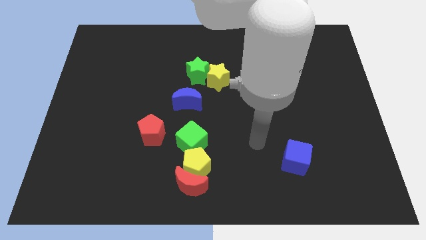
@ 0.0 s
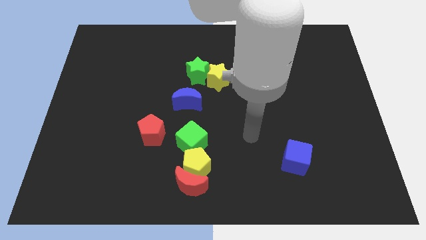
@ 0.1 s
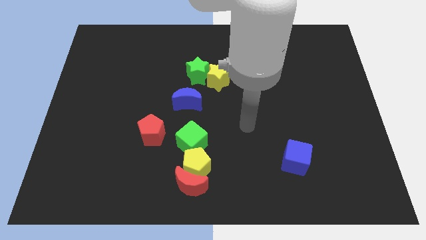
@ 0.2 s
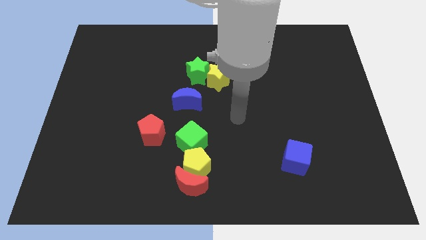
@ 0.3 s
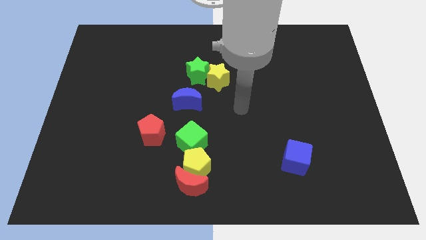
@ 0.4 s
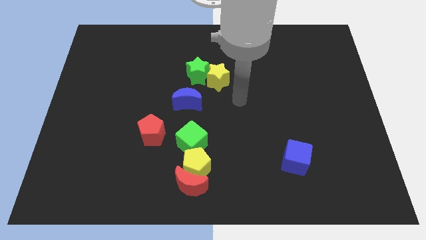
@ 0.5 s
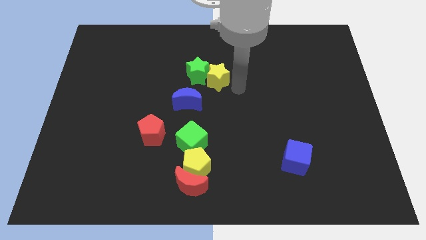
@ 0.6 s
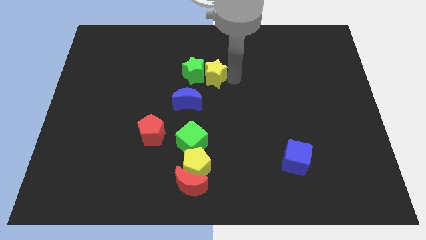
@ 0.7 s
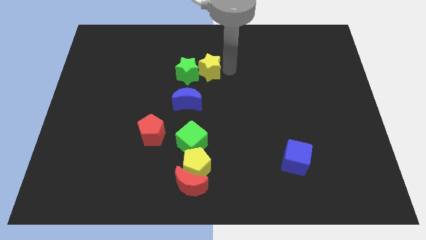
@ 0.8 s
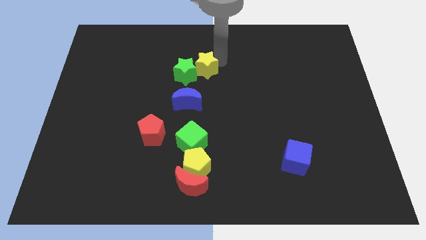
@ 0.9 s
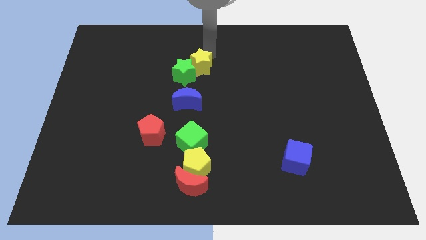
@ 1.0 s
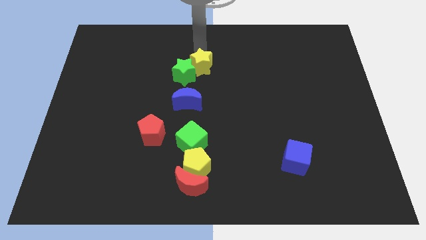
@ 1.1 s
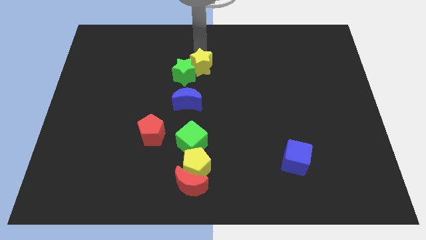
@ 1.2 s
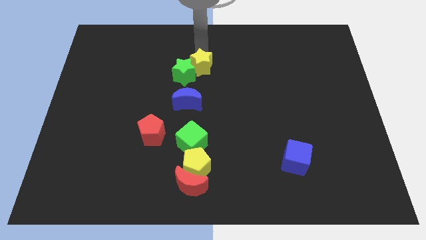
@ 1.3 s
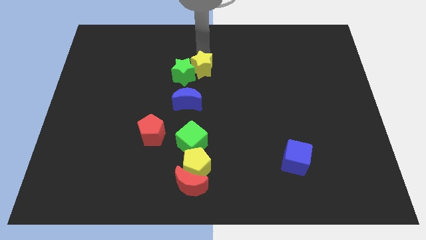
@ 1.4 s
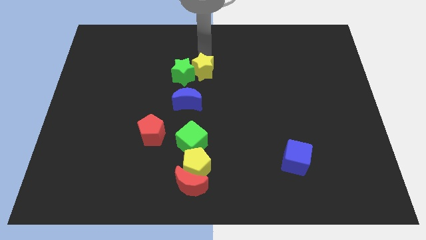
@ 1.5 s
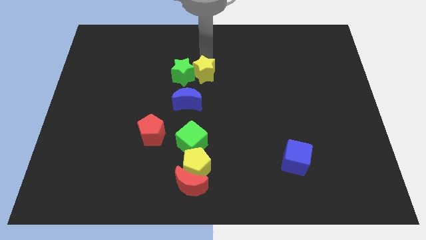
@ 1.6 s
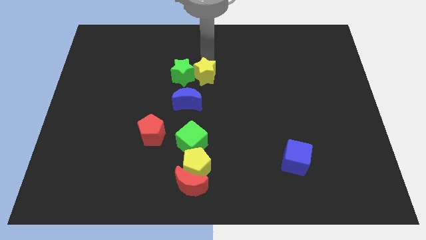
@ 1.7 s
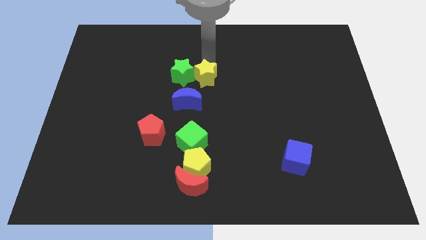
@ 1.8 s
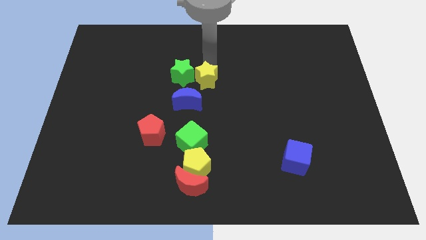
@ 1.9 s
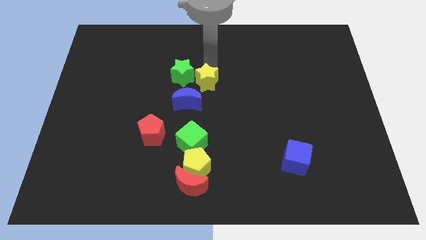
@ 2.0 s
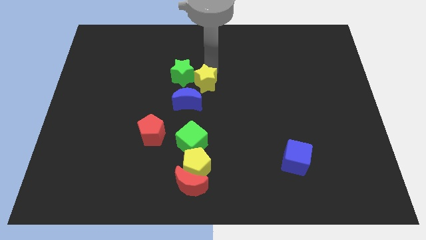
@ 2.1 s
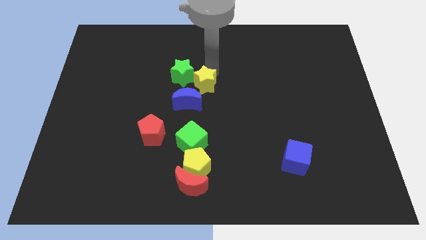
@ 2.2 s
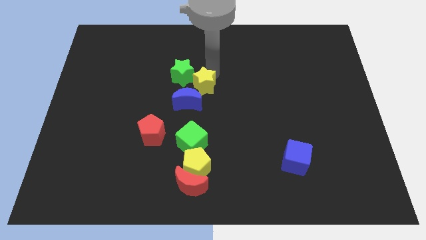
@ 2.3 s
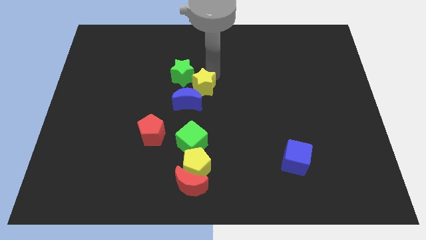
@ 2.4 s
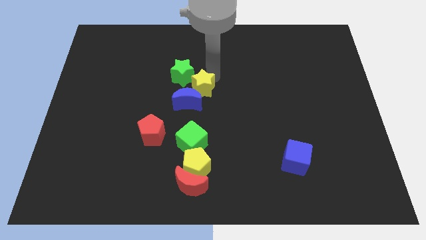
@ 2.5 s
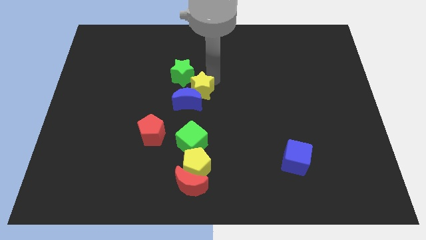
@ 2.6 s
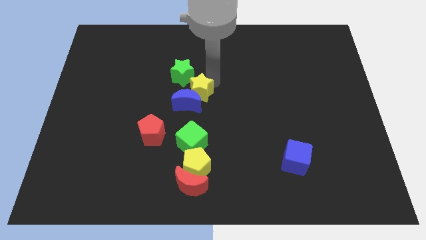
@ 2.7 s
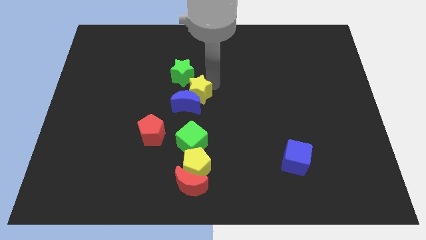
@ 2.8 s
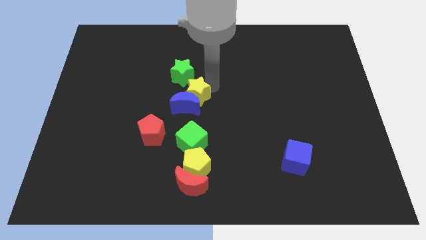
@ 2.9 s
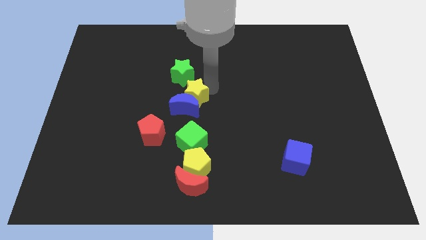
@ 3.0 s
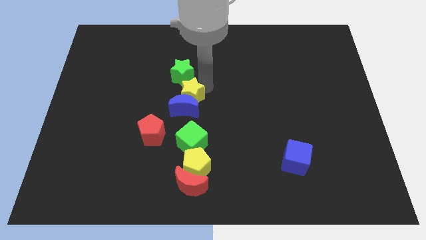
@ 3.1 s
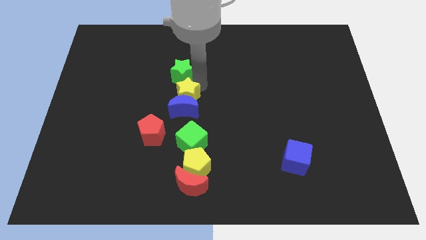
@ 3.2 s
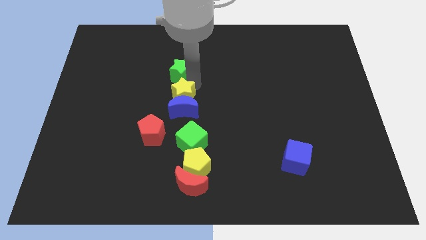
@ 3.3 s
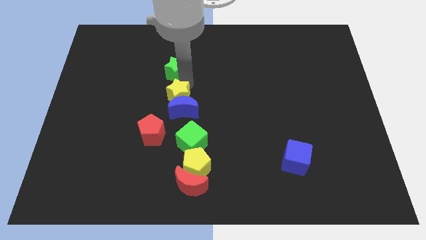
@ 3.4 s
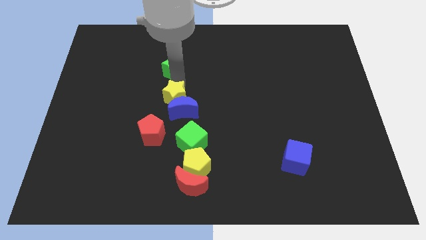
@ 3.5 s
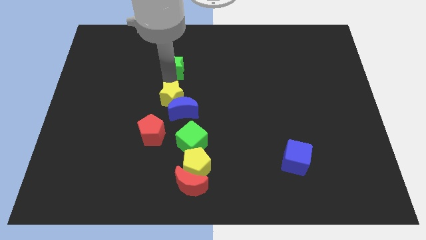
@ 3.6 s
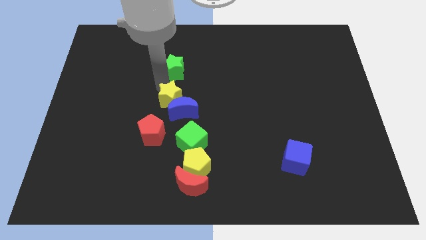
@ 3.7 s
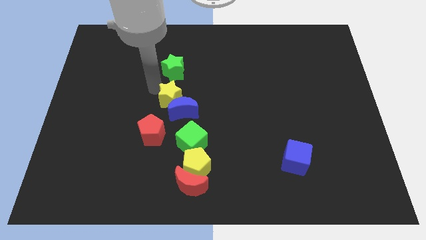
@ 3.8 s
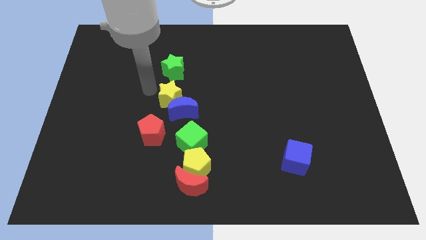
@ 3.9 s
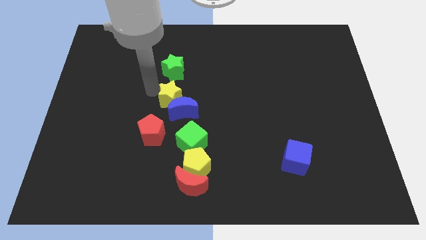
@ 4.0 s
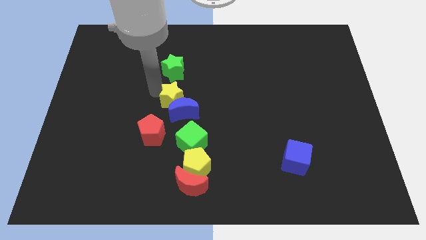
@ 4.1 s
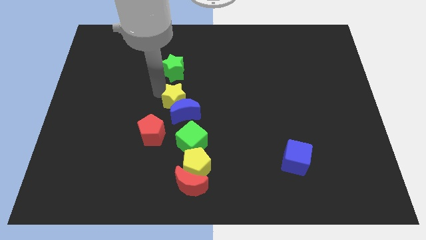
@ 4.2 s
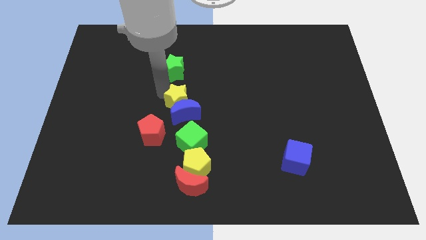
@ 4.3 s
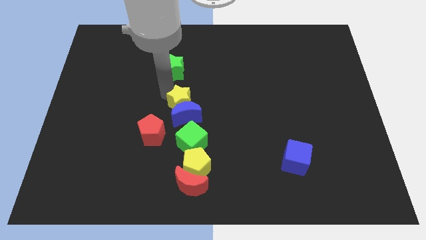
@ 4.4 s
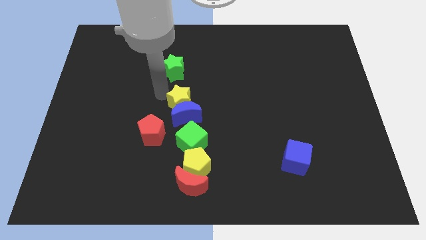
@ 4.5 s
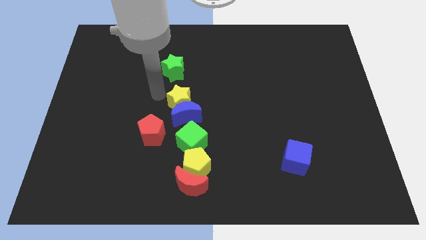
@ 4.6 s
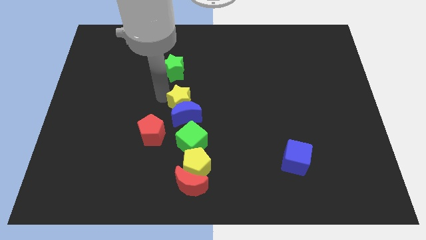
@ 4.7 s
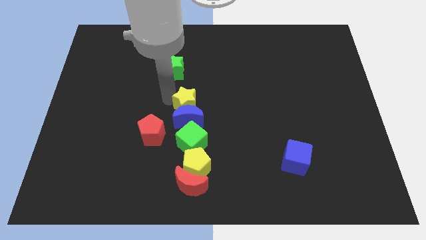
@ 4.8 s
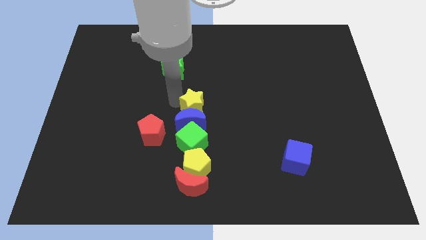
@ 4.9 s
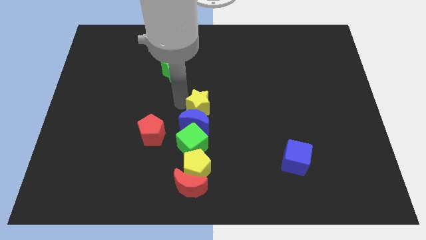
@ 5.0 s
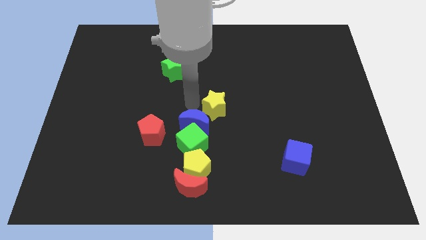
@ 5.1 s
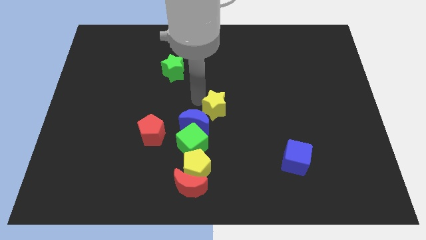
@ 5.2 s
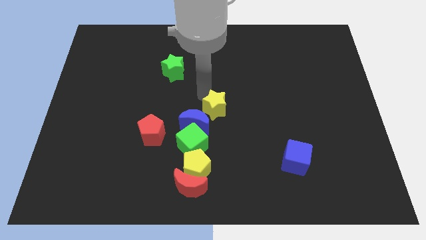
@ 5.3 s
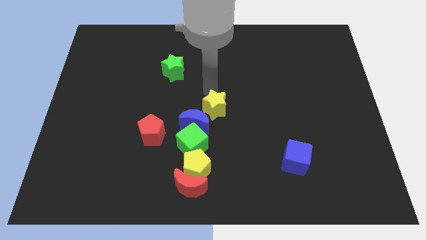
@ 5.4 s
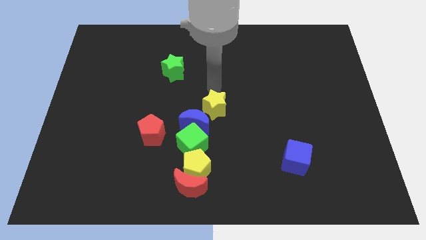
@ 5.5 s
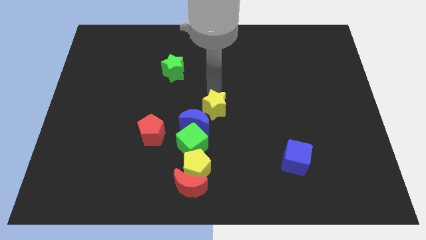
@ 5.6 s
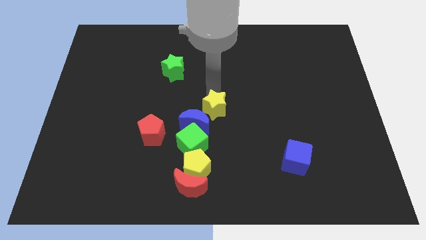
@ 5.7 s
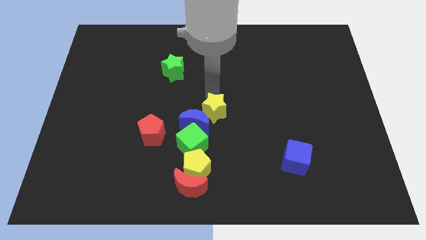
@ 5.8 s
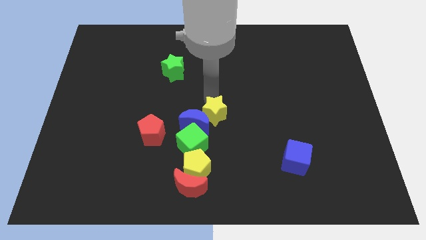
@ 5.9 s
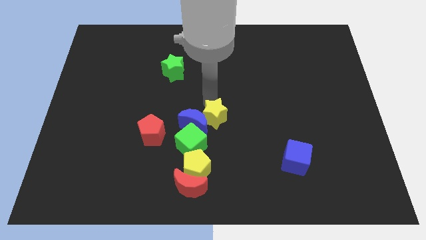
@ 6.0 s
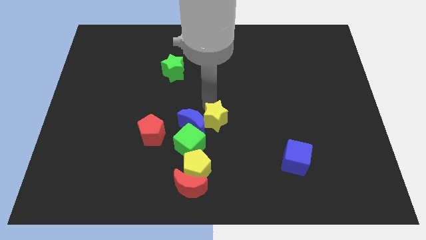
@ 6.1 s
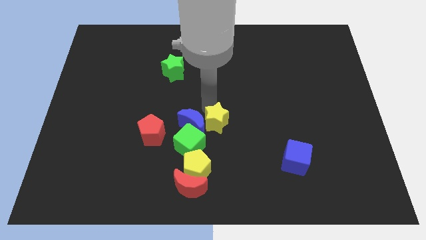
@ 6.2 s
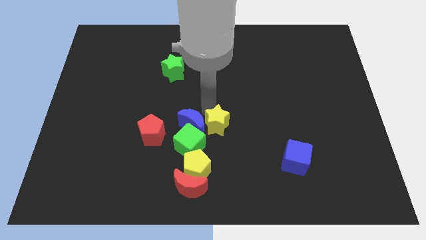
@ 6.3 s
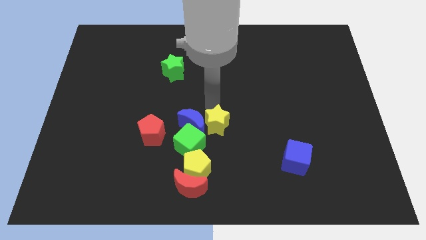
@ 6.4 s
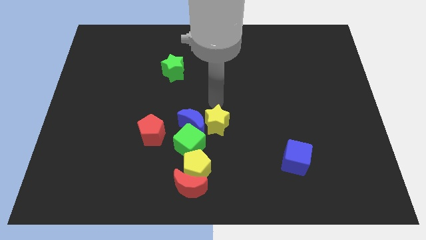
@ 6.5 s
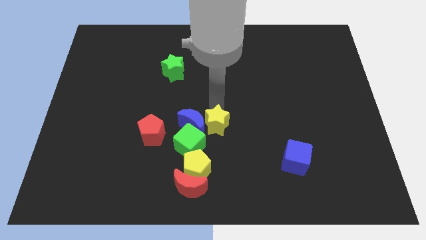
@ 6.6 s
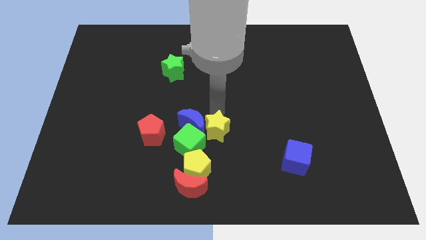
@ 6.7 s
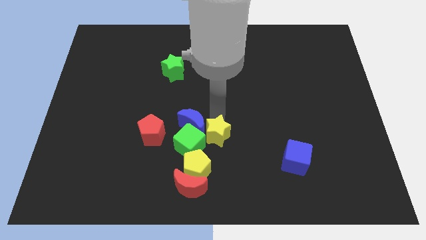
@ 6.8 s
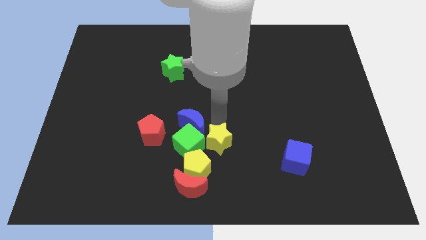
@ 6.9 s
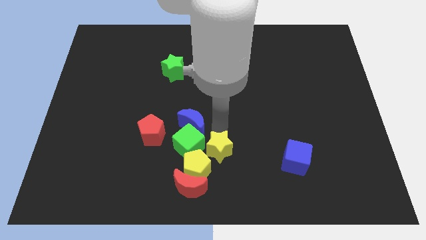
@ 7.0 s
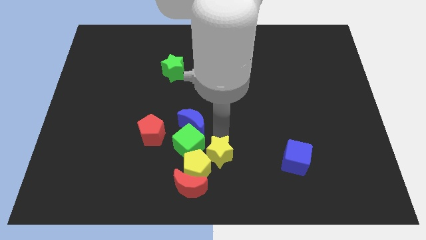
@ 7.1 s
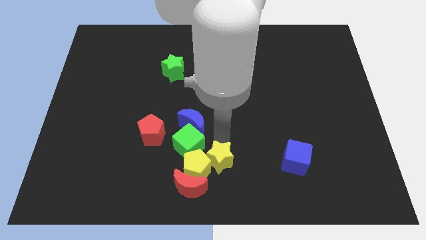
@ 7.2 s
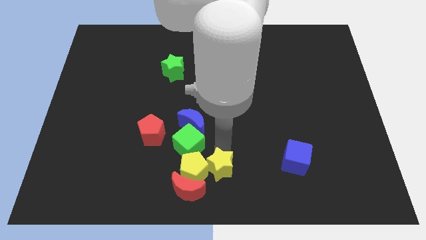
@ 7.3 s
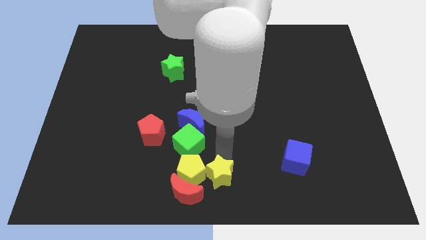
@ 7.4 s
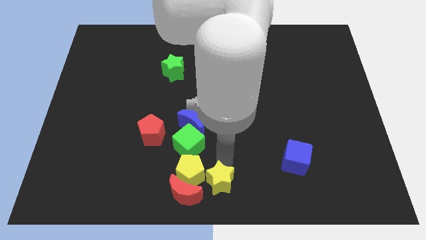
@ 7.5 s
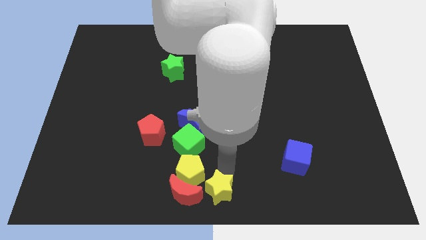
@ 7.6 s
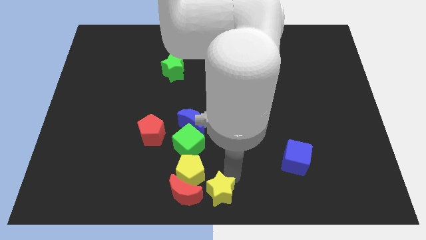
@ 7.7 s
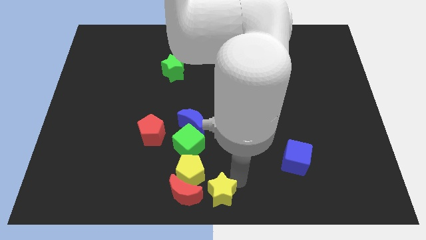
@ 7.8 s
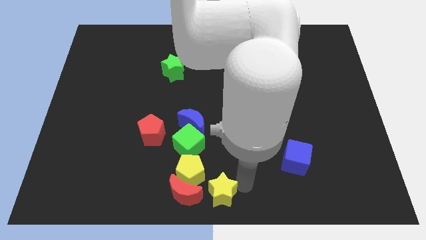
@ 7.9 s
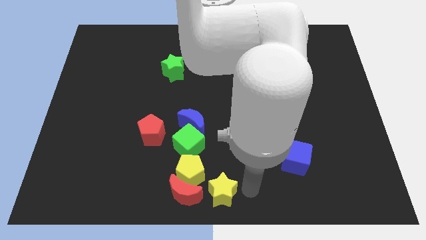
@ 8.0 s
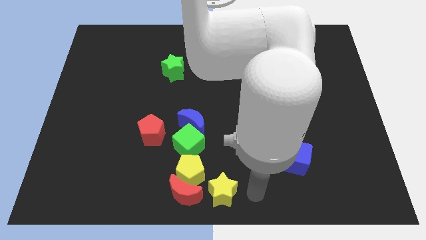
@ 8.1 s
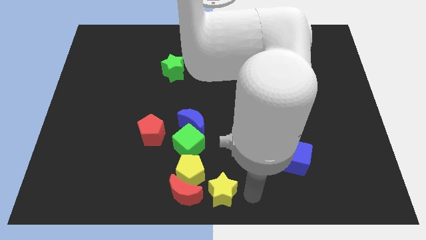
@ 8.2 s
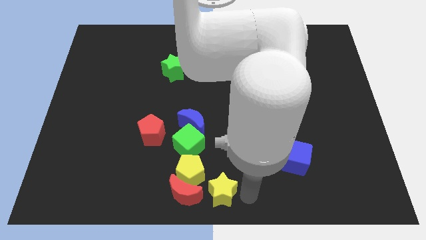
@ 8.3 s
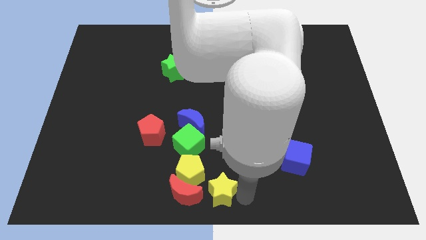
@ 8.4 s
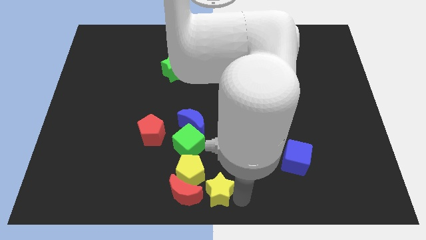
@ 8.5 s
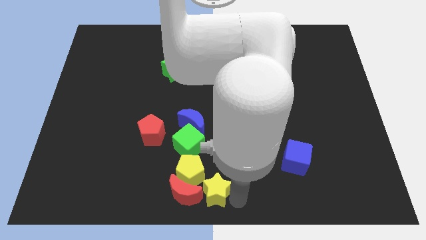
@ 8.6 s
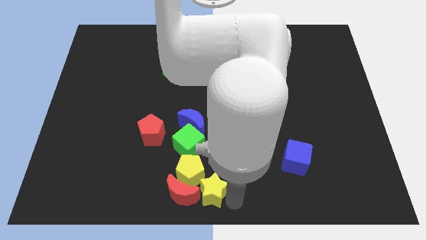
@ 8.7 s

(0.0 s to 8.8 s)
slide the yellow star next to the red moon
